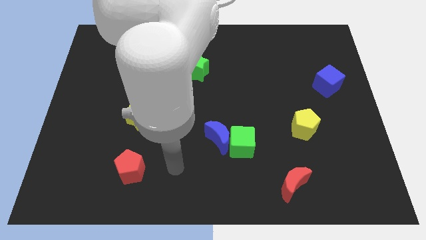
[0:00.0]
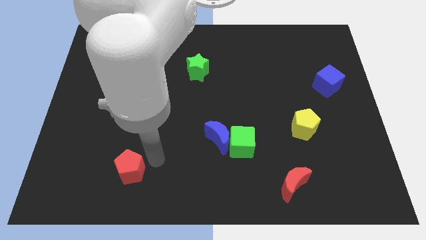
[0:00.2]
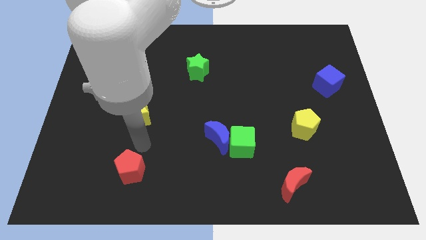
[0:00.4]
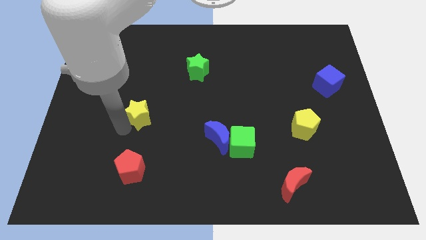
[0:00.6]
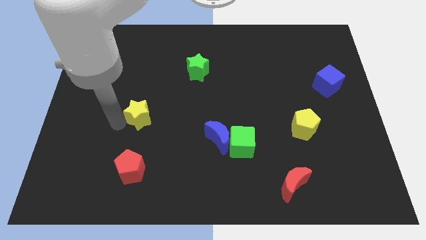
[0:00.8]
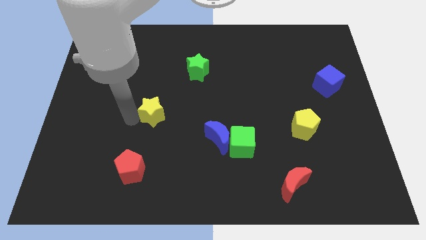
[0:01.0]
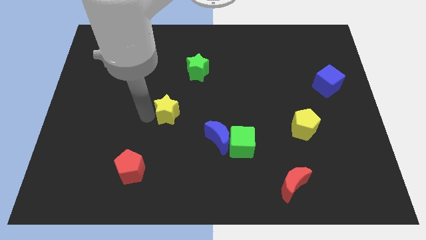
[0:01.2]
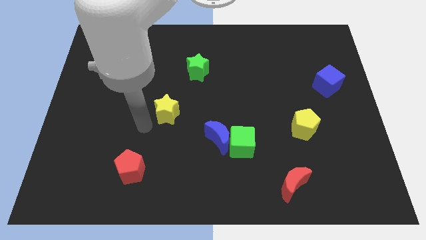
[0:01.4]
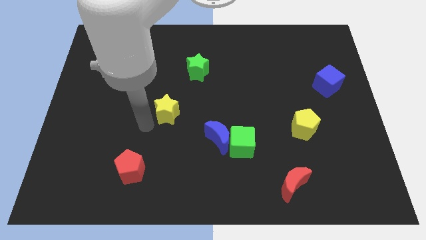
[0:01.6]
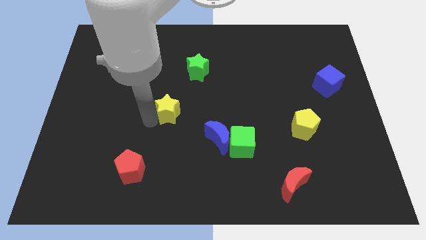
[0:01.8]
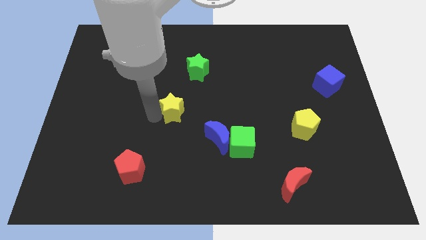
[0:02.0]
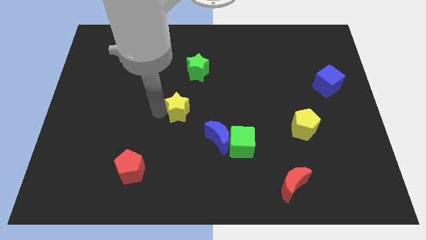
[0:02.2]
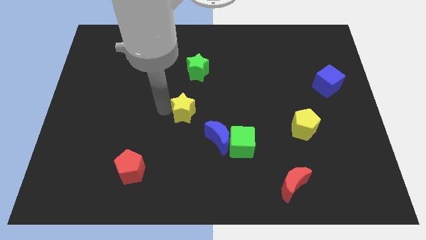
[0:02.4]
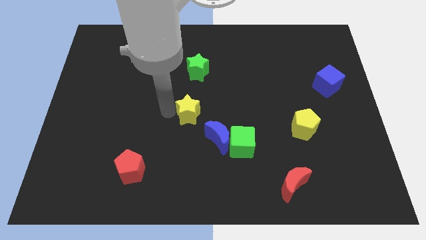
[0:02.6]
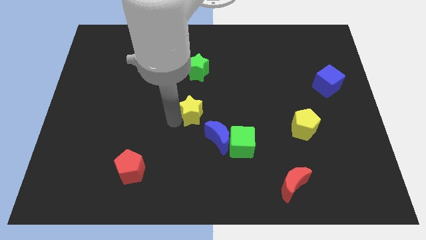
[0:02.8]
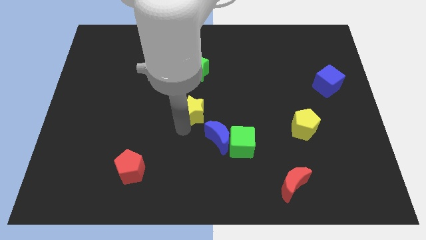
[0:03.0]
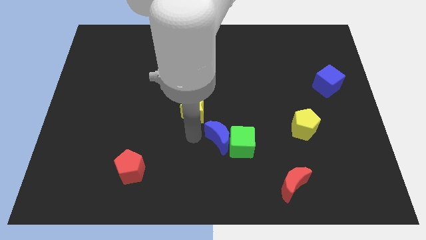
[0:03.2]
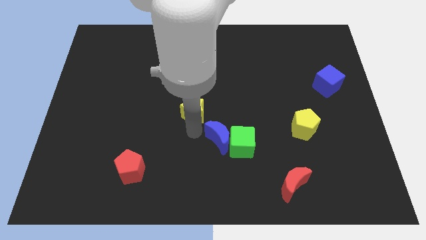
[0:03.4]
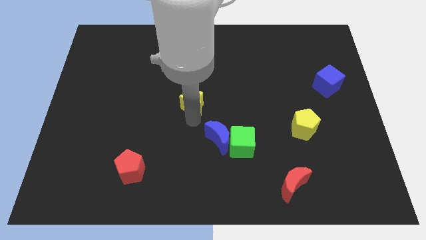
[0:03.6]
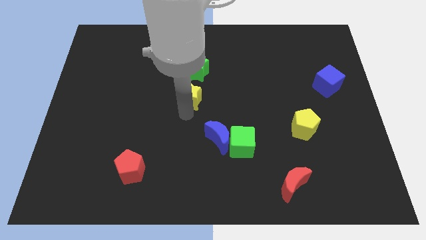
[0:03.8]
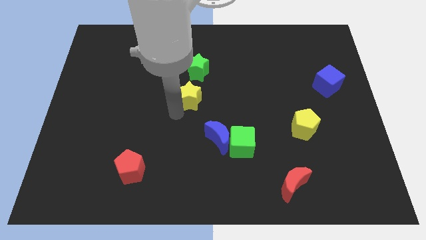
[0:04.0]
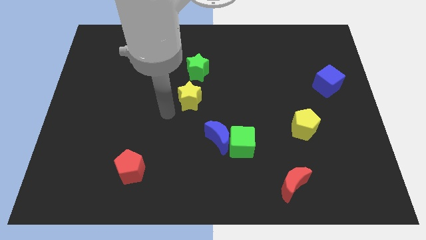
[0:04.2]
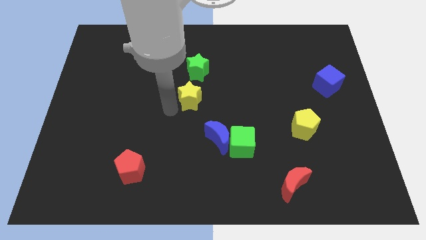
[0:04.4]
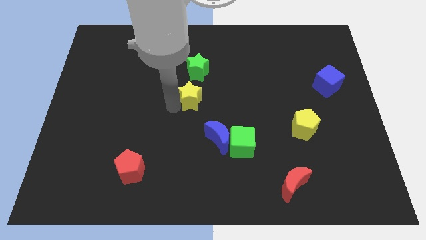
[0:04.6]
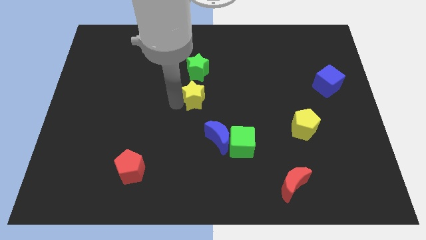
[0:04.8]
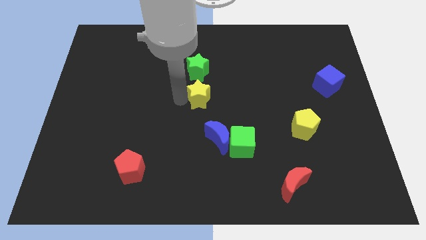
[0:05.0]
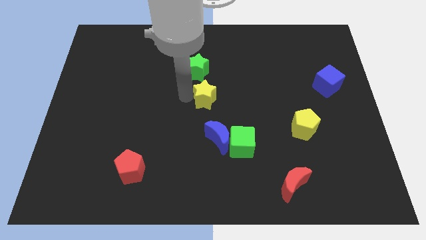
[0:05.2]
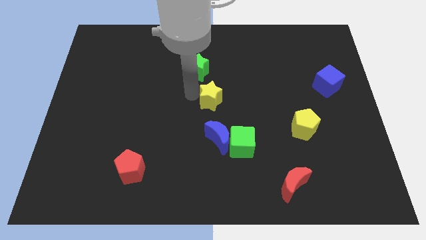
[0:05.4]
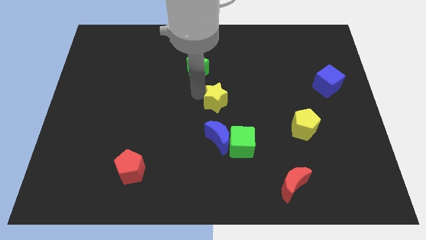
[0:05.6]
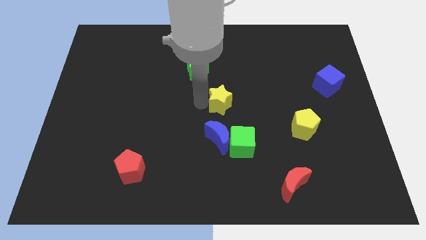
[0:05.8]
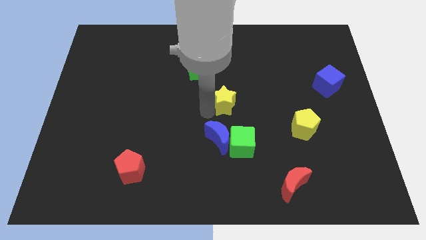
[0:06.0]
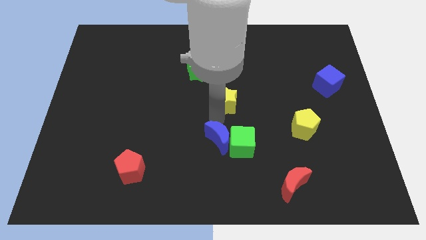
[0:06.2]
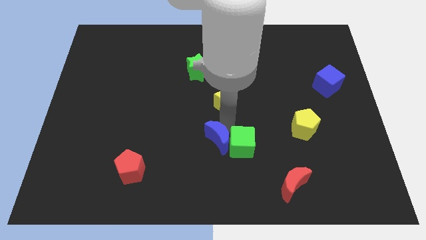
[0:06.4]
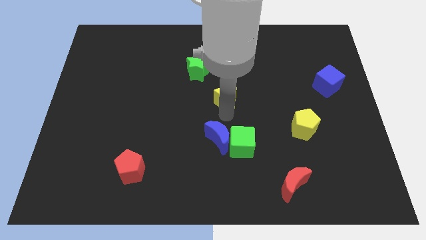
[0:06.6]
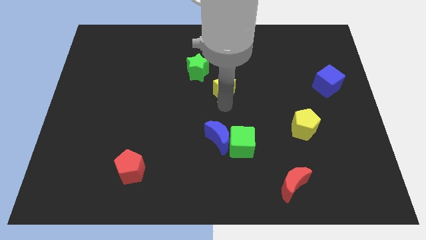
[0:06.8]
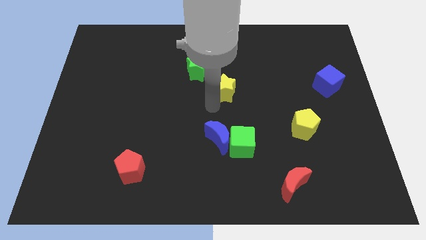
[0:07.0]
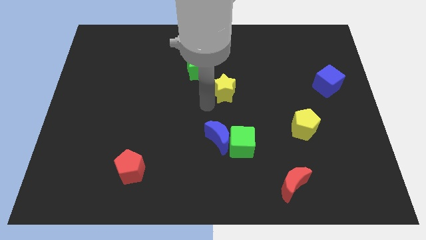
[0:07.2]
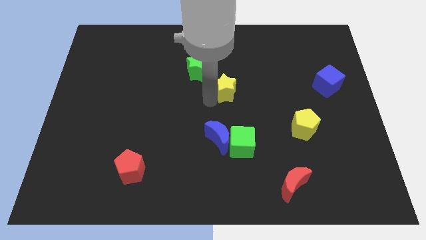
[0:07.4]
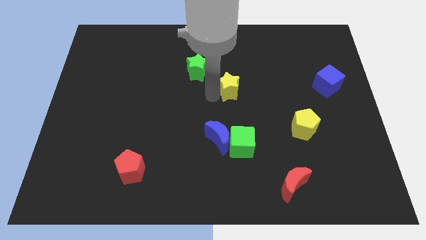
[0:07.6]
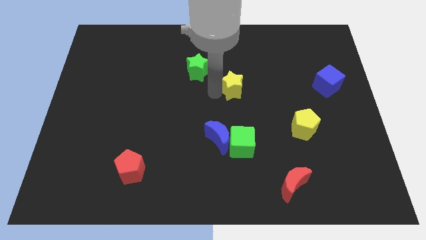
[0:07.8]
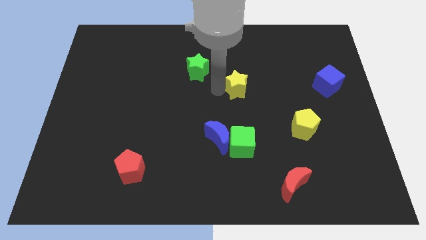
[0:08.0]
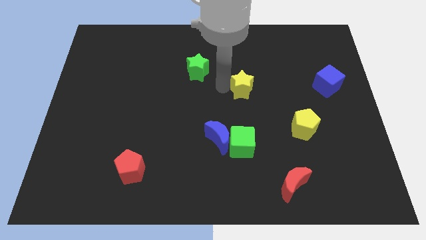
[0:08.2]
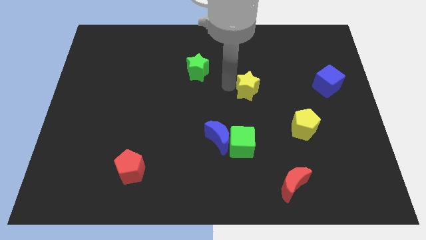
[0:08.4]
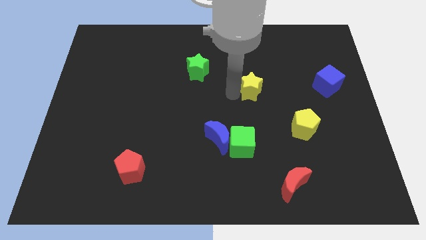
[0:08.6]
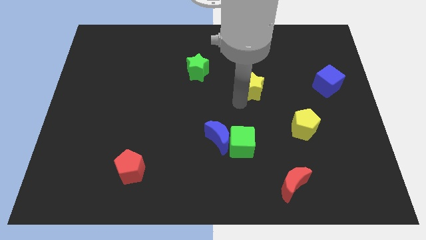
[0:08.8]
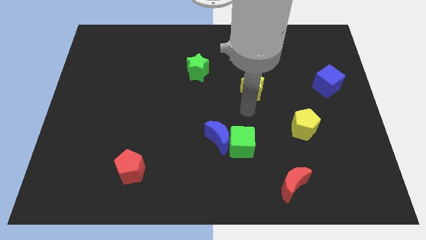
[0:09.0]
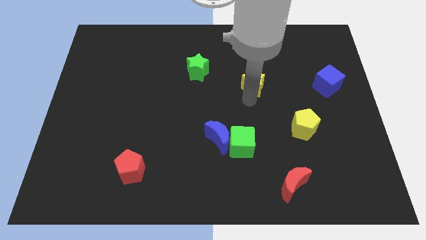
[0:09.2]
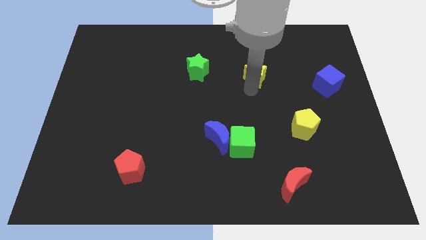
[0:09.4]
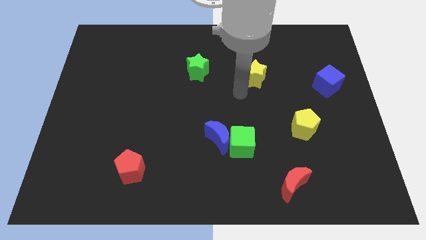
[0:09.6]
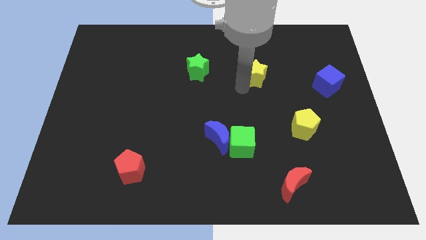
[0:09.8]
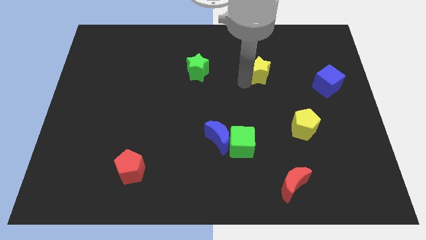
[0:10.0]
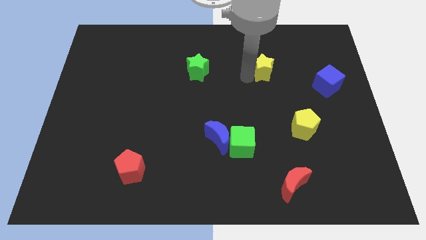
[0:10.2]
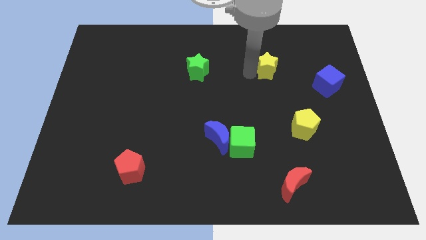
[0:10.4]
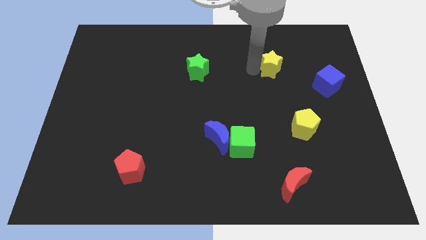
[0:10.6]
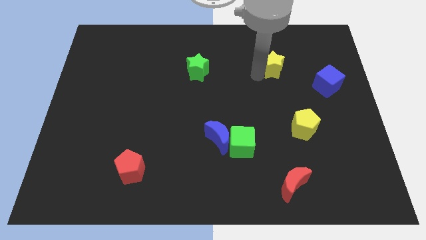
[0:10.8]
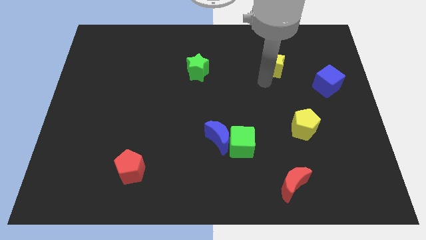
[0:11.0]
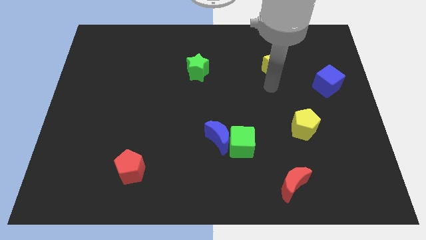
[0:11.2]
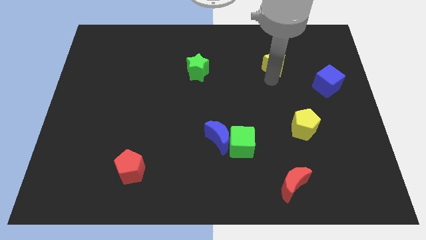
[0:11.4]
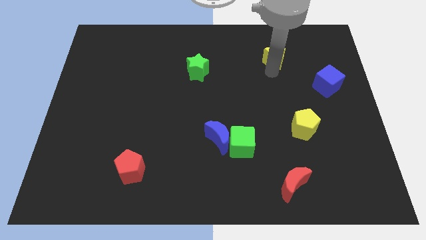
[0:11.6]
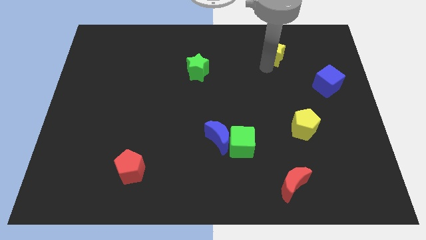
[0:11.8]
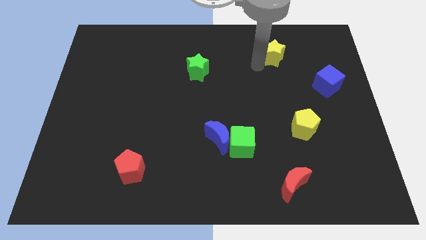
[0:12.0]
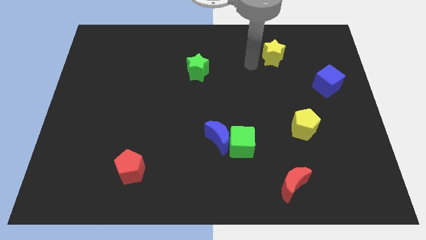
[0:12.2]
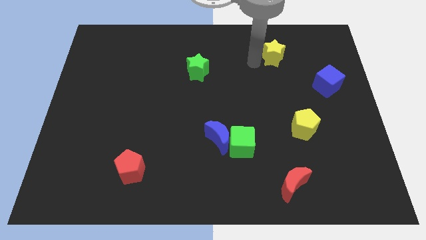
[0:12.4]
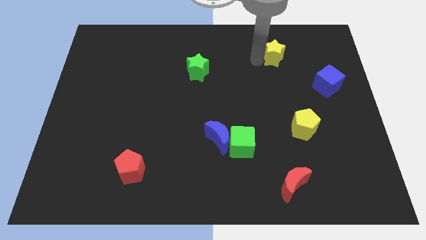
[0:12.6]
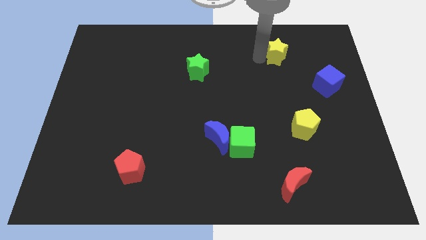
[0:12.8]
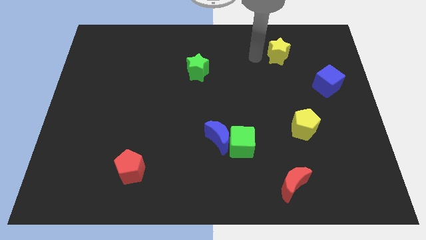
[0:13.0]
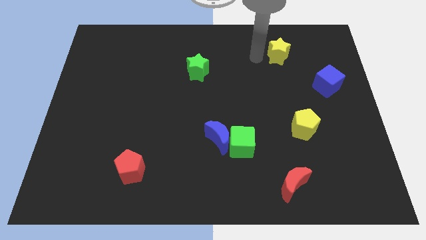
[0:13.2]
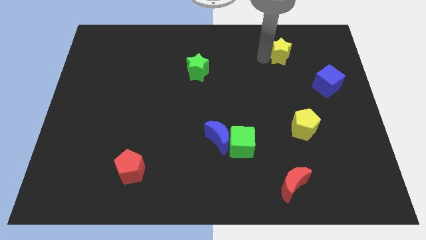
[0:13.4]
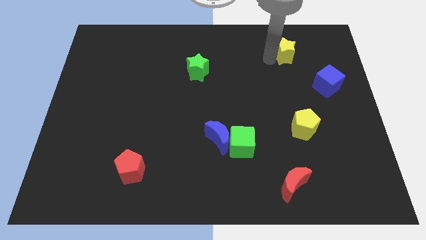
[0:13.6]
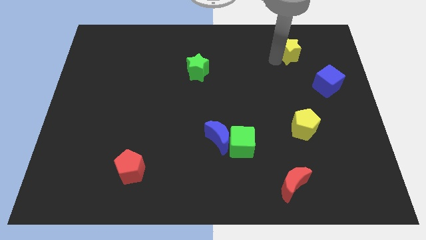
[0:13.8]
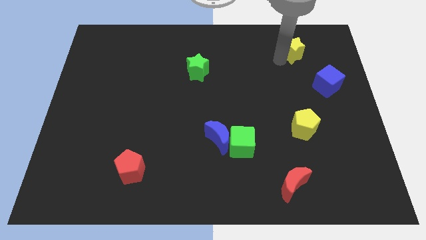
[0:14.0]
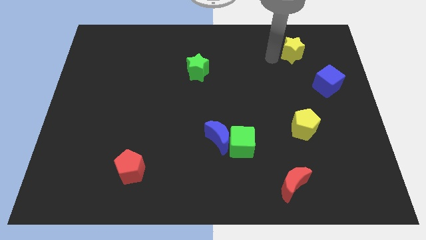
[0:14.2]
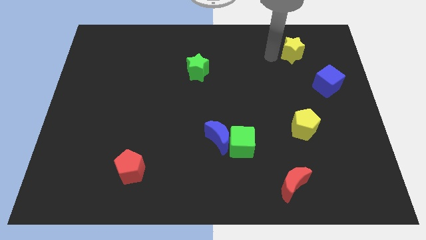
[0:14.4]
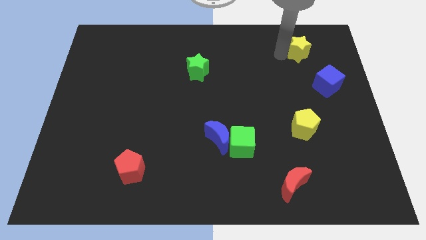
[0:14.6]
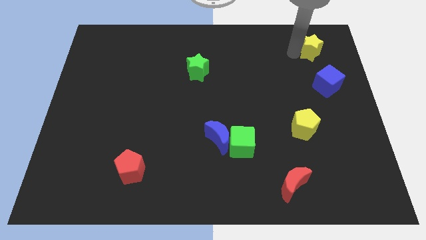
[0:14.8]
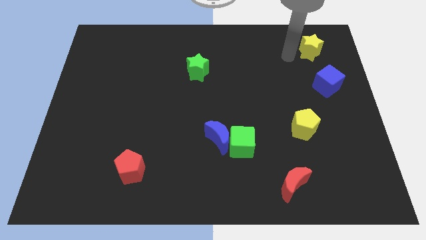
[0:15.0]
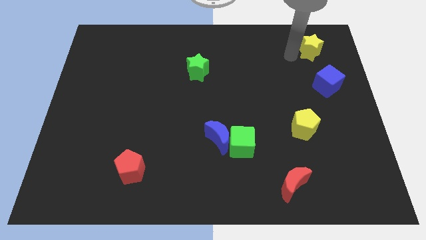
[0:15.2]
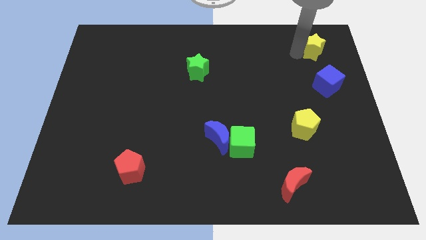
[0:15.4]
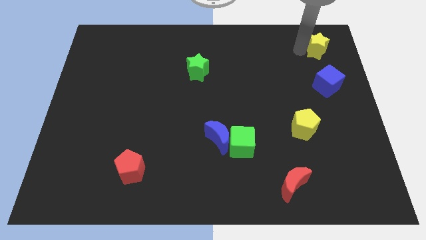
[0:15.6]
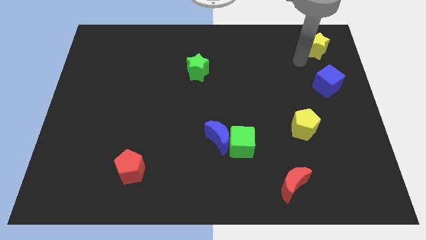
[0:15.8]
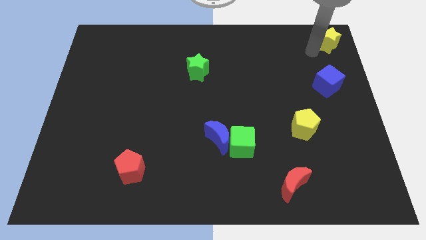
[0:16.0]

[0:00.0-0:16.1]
put the yellow star to the upper right corner
